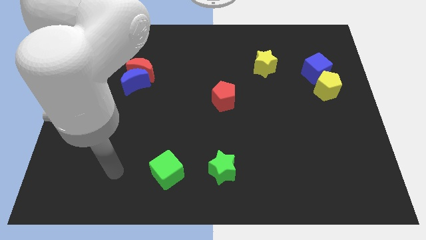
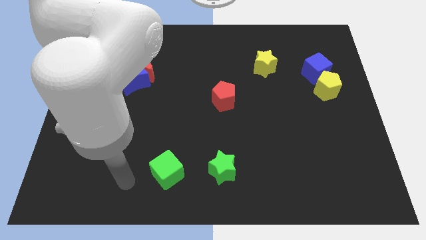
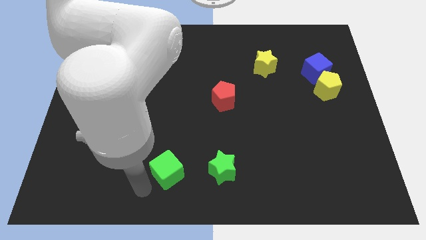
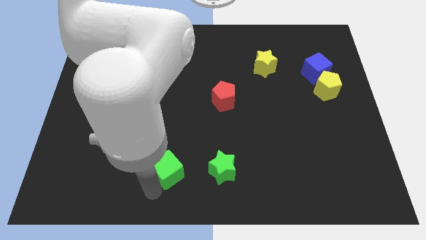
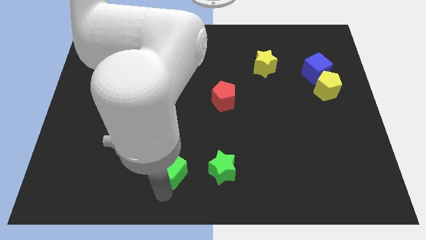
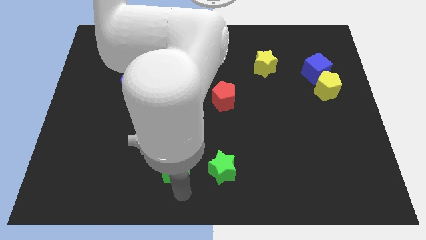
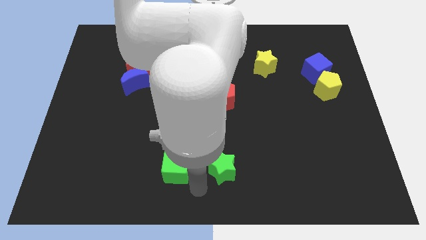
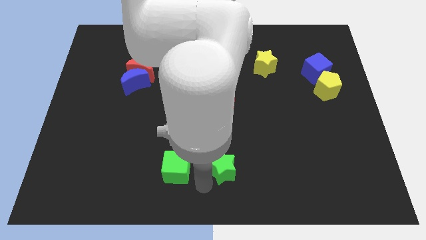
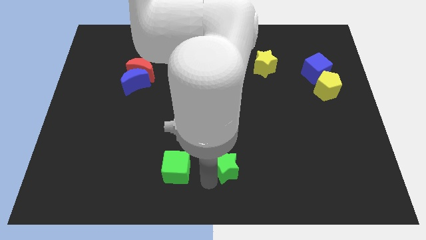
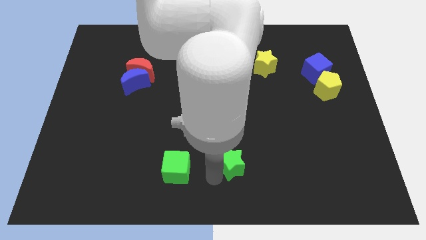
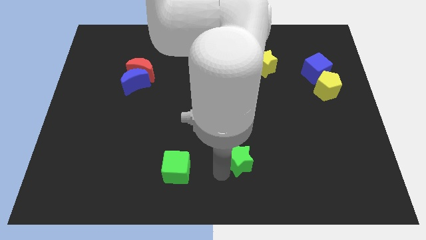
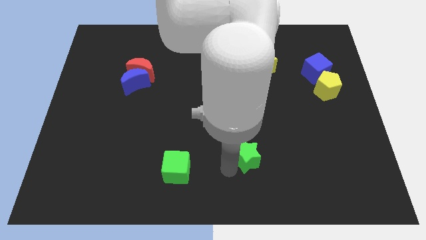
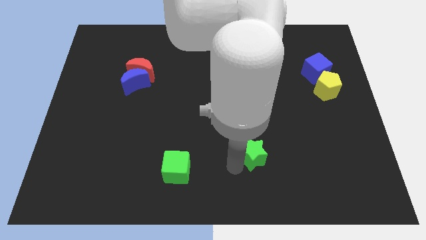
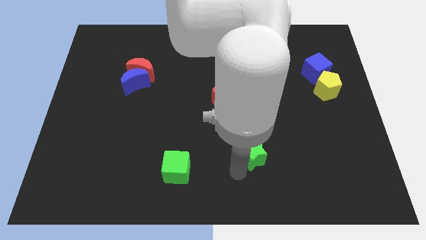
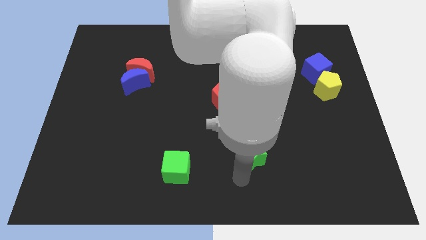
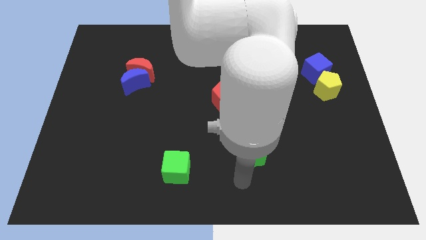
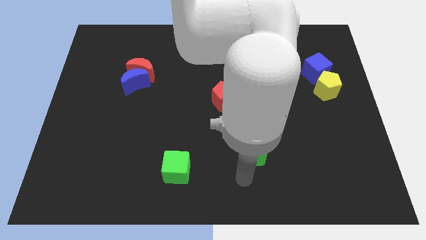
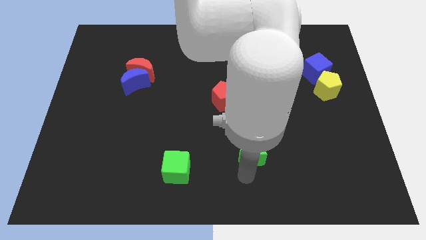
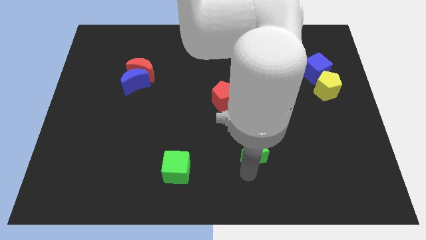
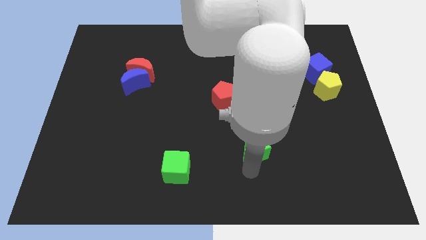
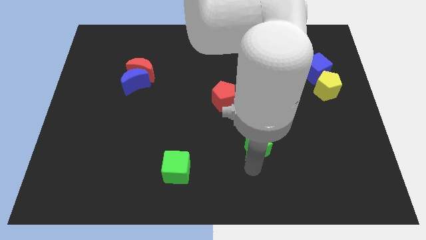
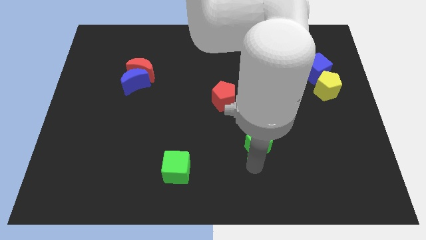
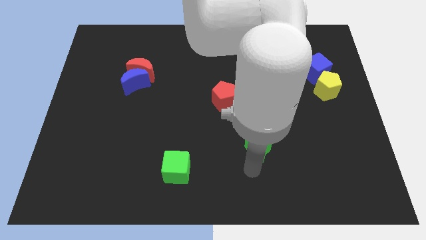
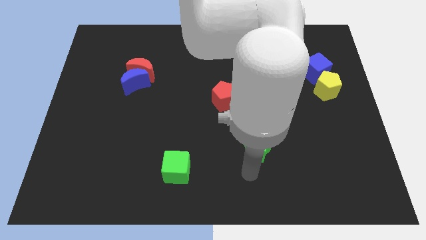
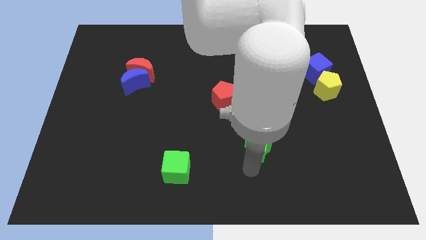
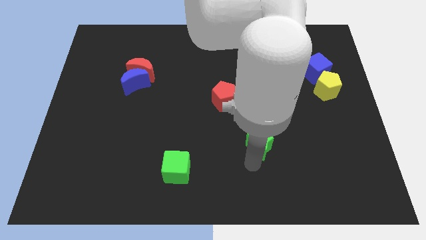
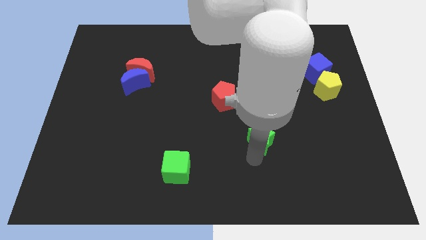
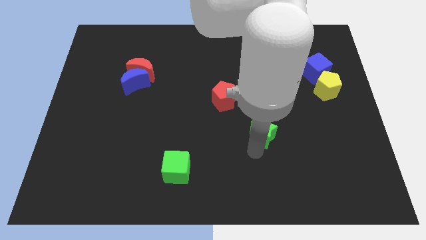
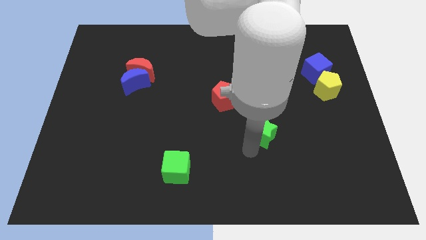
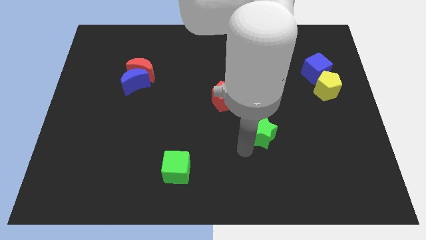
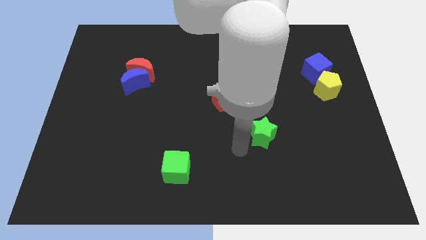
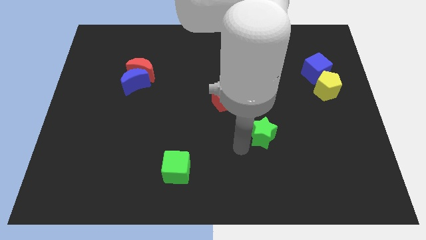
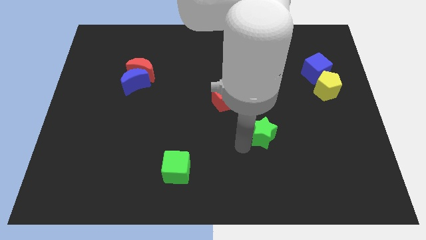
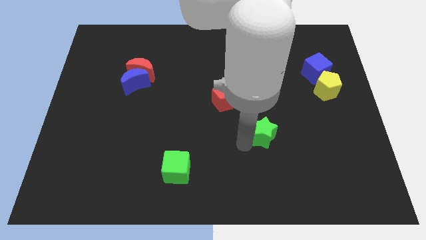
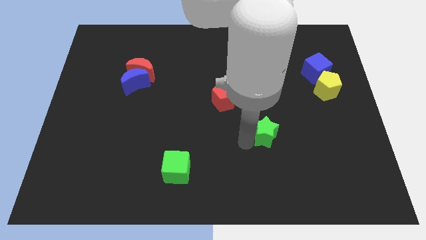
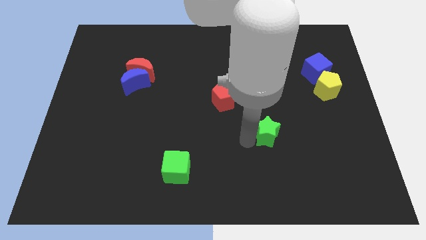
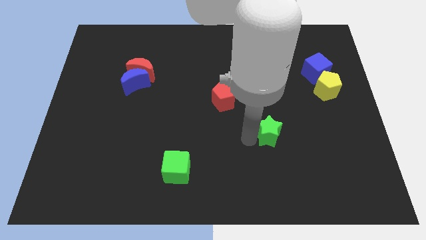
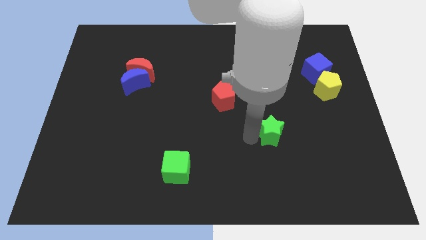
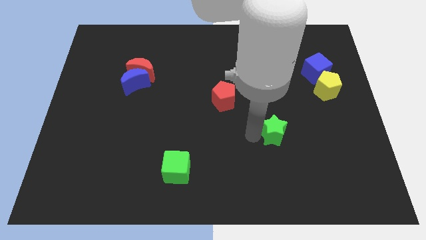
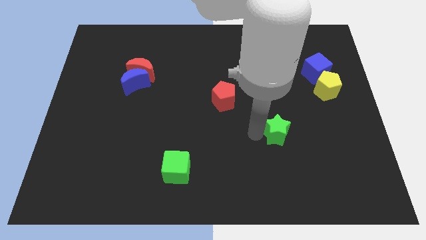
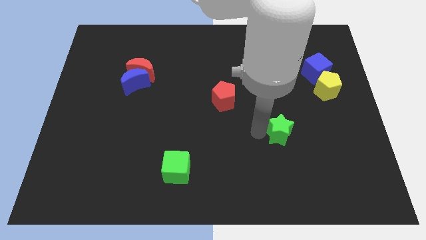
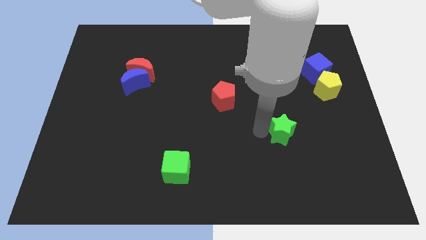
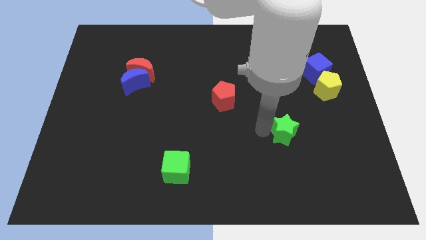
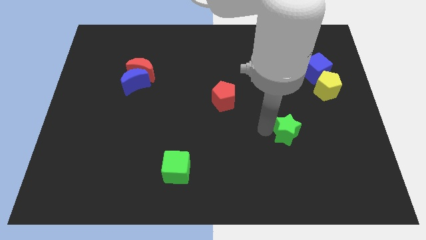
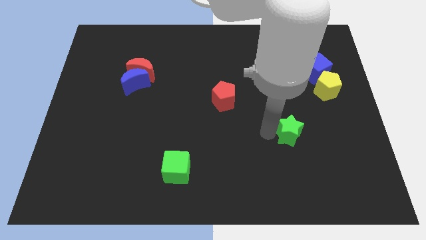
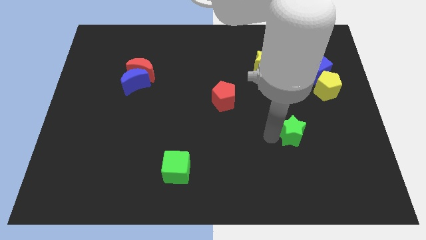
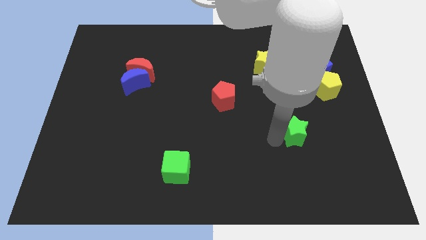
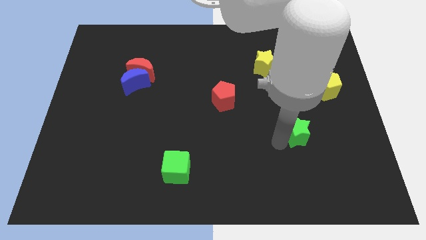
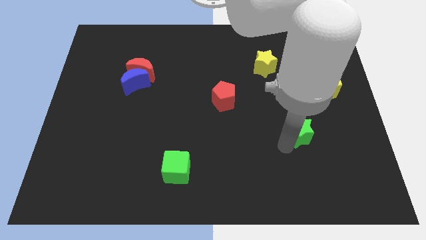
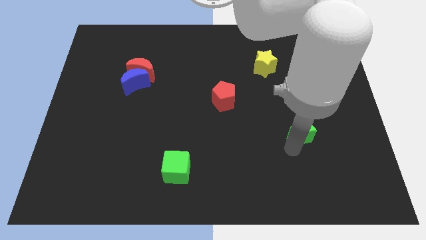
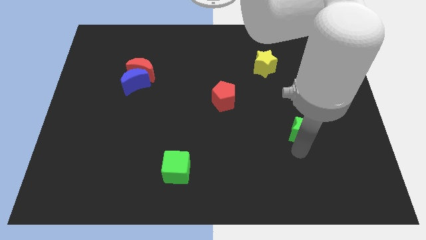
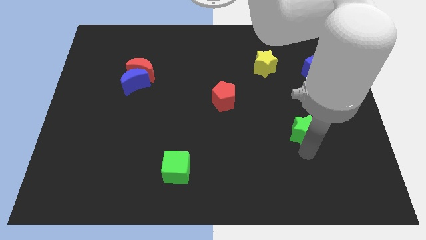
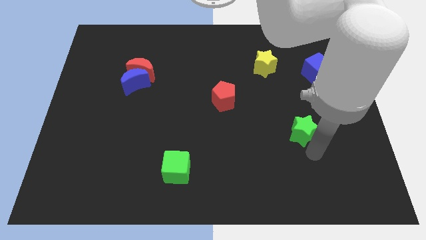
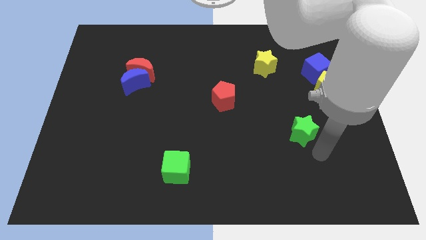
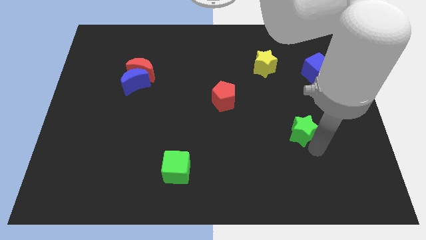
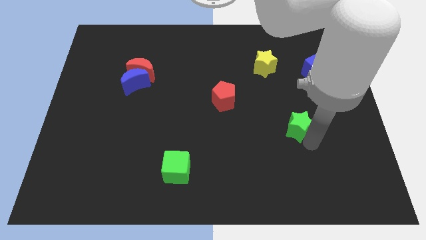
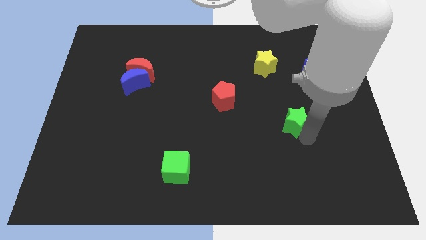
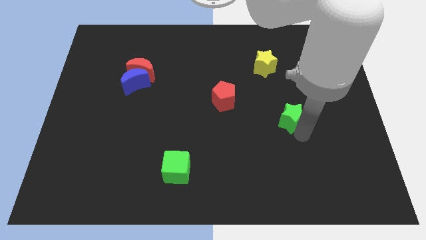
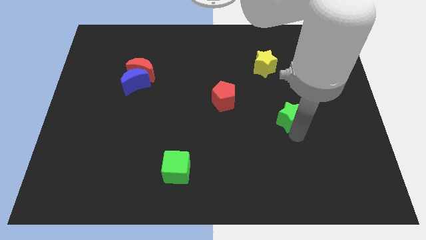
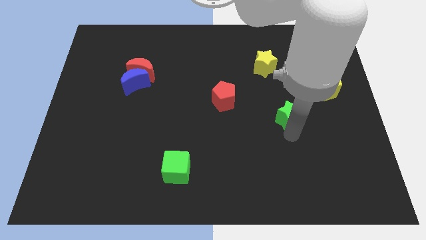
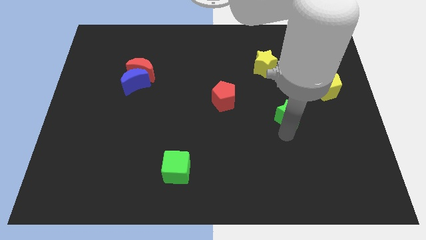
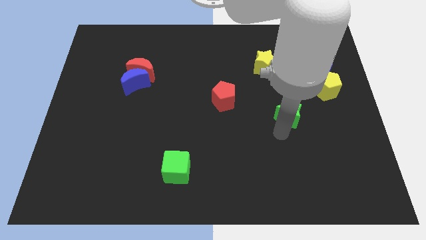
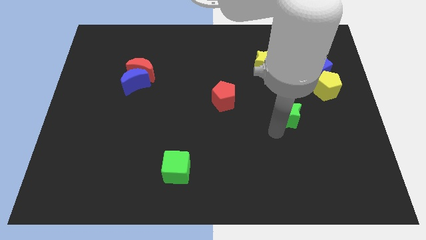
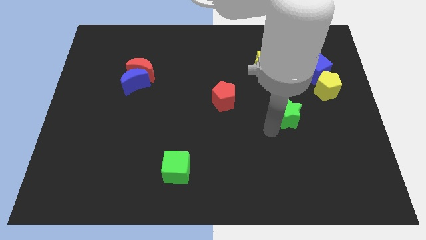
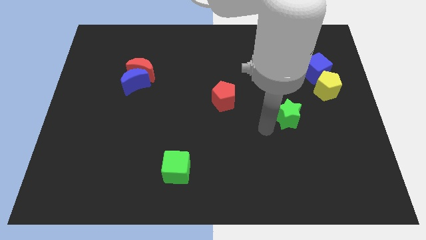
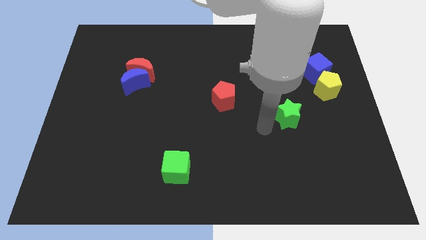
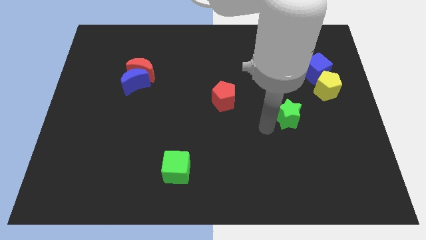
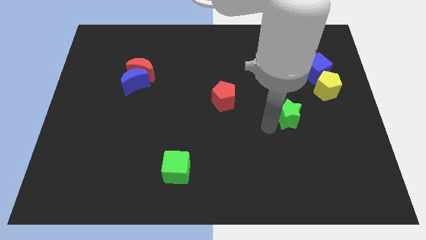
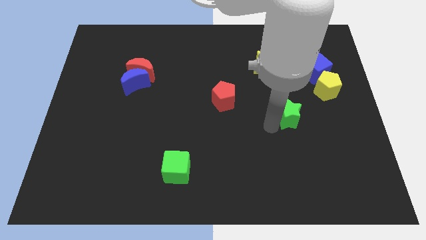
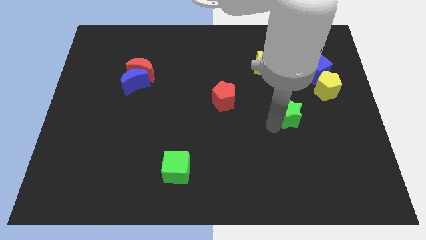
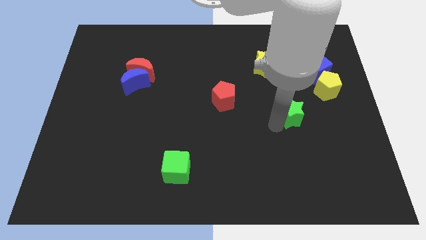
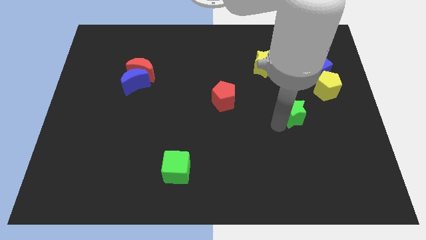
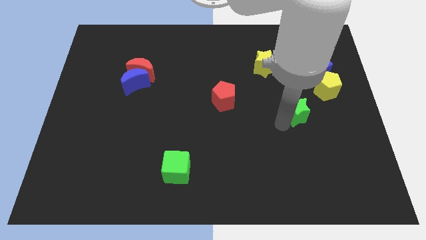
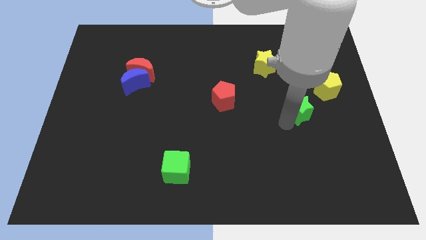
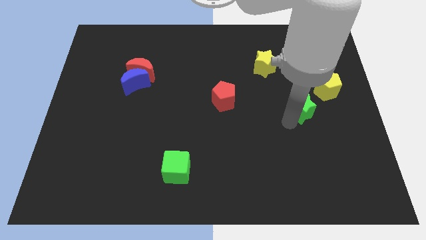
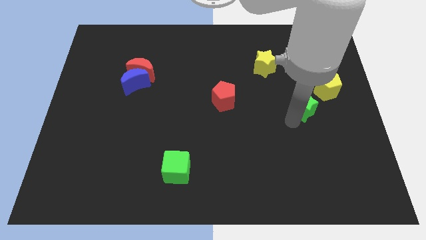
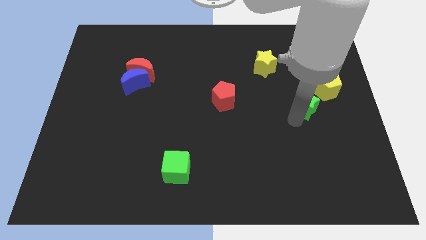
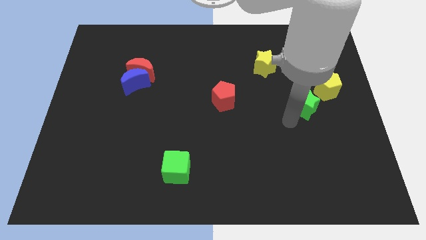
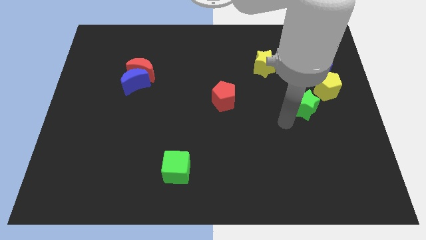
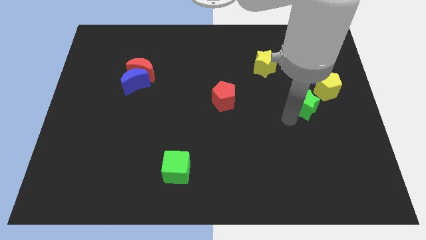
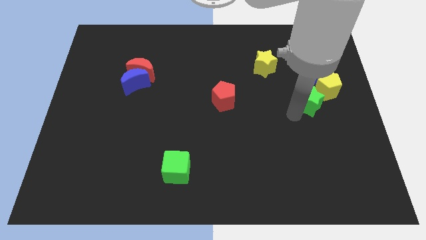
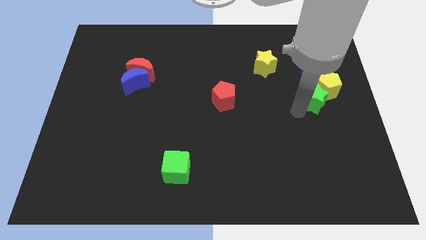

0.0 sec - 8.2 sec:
push the green star to the yellow pentagon
